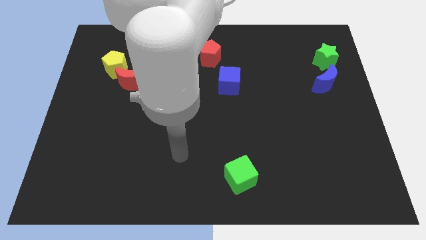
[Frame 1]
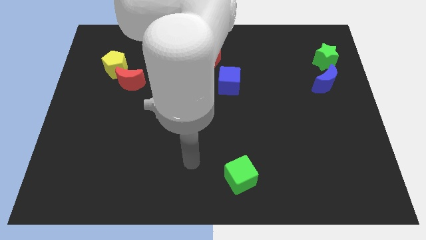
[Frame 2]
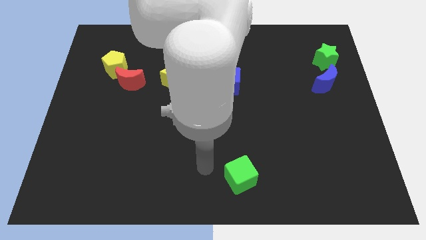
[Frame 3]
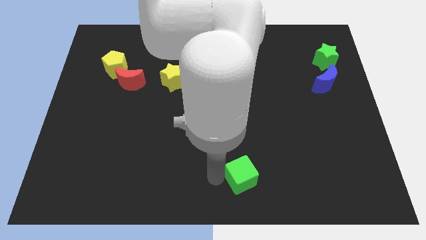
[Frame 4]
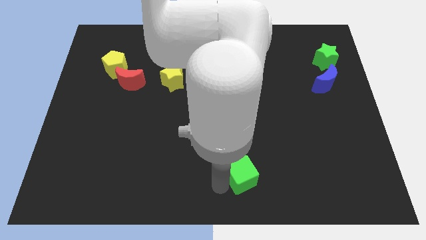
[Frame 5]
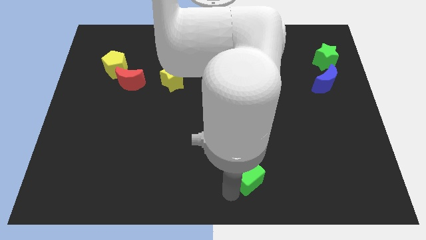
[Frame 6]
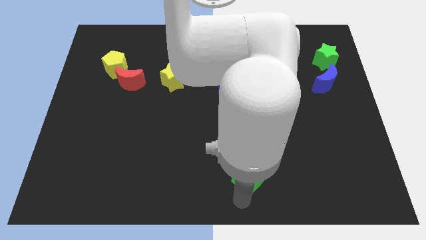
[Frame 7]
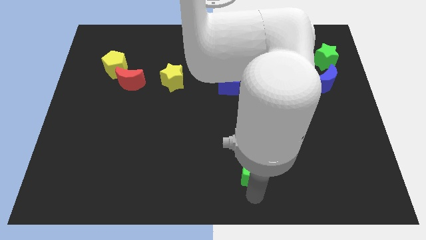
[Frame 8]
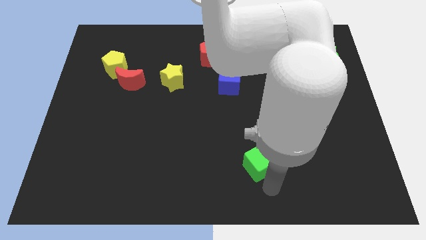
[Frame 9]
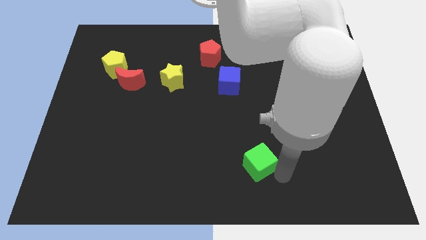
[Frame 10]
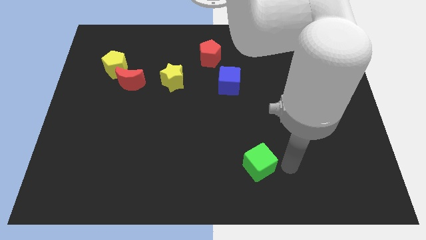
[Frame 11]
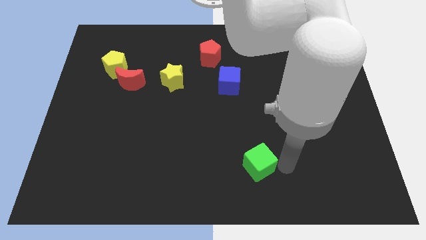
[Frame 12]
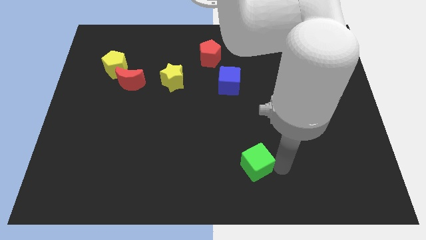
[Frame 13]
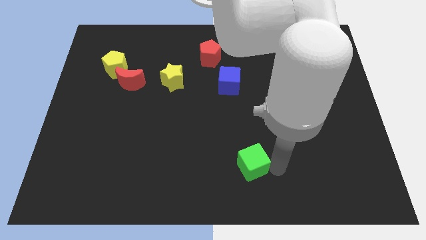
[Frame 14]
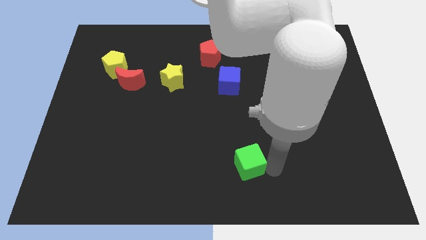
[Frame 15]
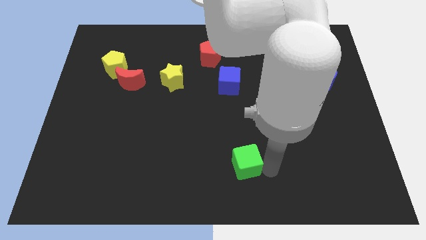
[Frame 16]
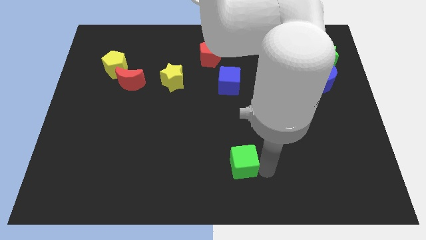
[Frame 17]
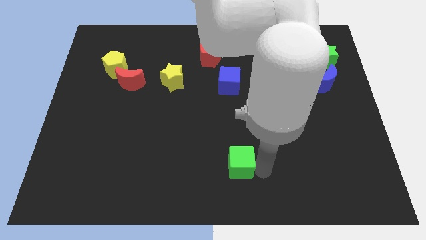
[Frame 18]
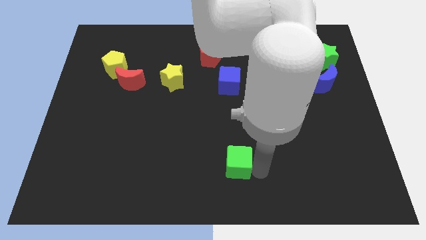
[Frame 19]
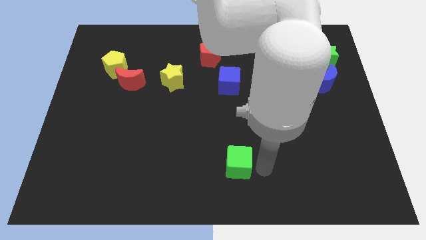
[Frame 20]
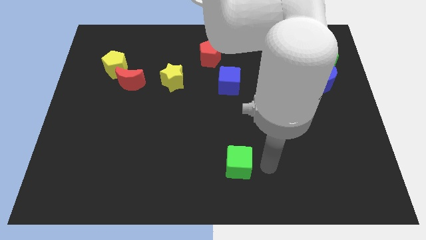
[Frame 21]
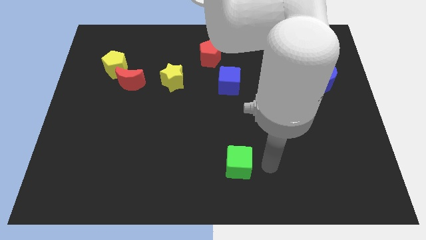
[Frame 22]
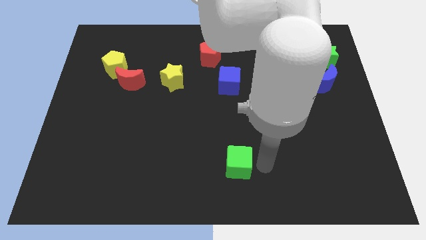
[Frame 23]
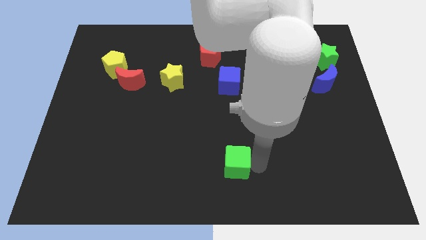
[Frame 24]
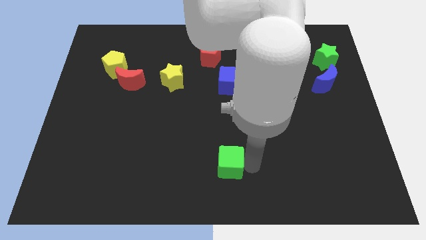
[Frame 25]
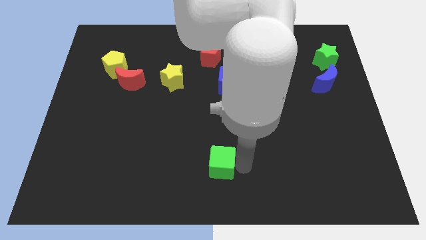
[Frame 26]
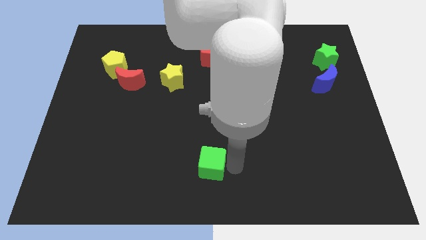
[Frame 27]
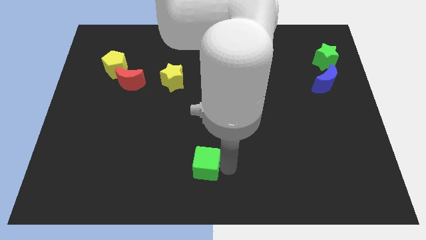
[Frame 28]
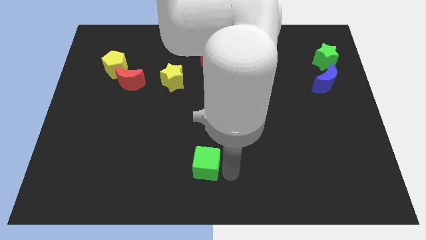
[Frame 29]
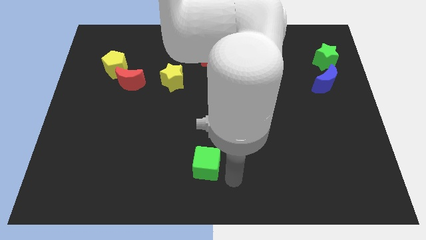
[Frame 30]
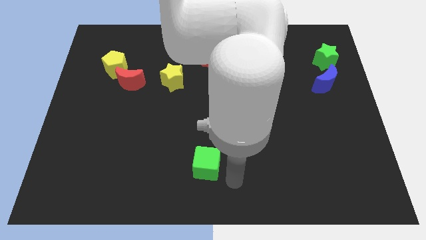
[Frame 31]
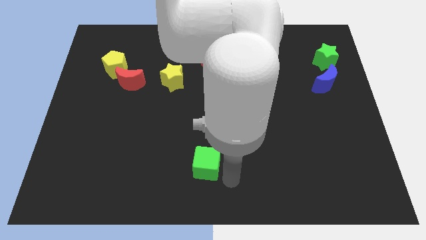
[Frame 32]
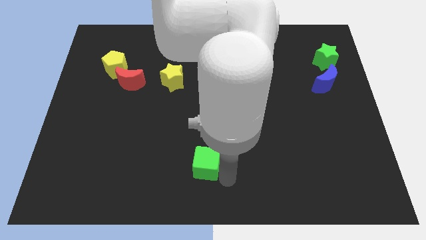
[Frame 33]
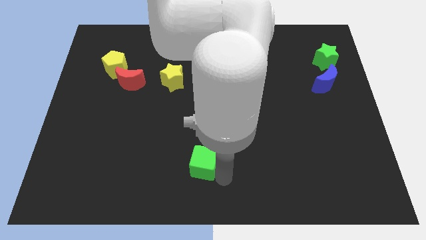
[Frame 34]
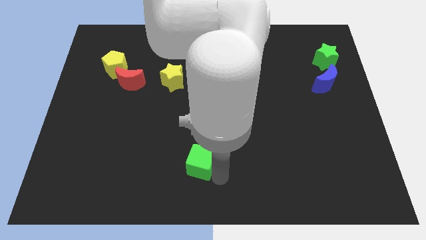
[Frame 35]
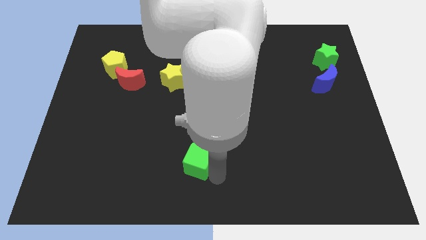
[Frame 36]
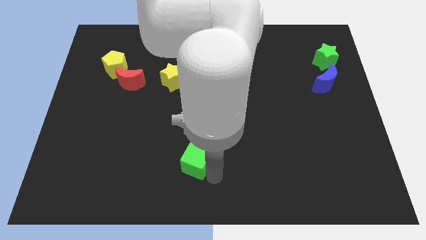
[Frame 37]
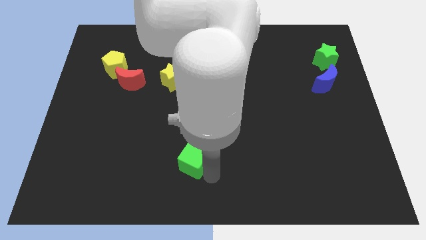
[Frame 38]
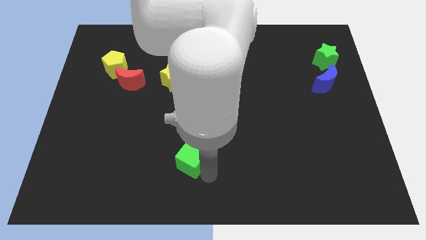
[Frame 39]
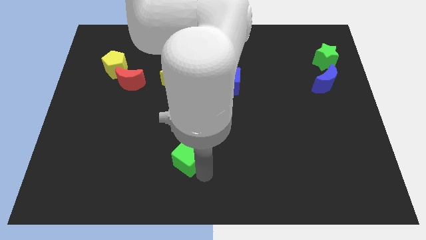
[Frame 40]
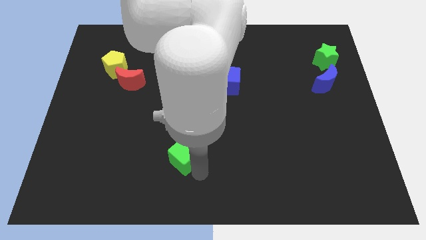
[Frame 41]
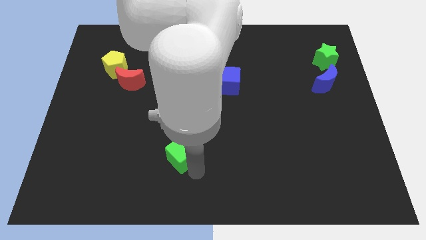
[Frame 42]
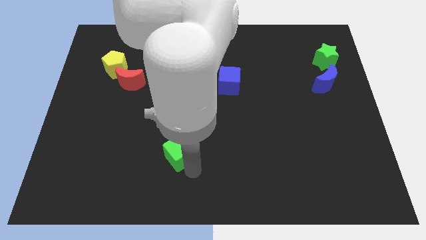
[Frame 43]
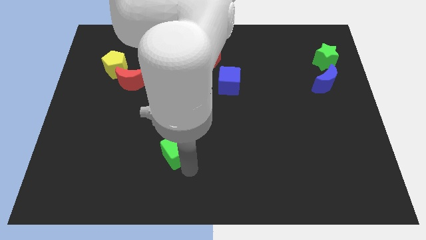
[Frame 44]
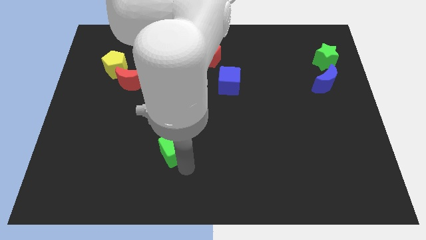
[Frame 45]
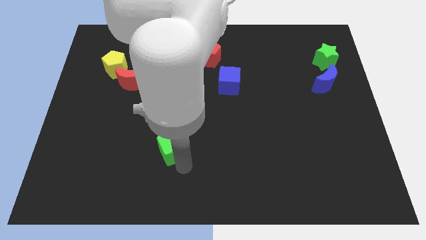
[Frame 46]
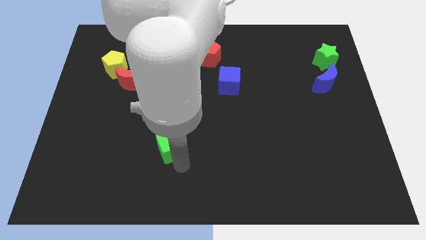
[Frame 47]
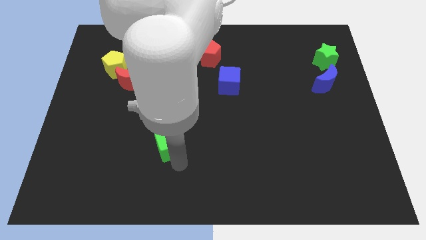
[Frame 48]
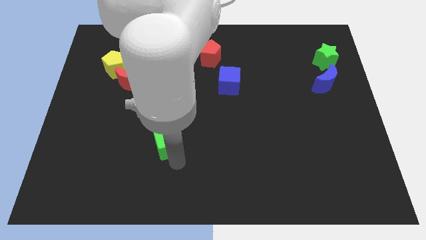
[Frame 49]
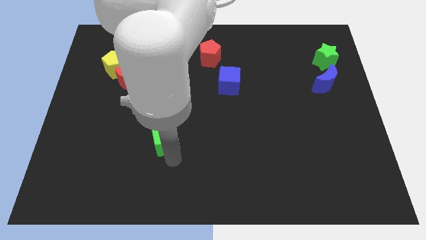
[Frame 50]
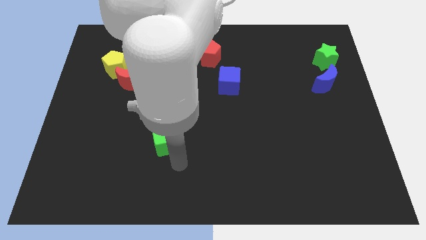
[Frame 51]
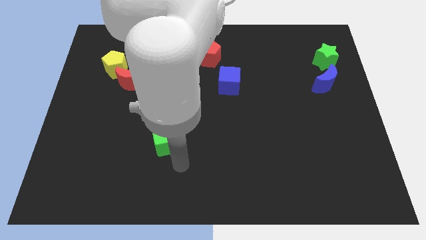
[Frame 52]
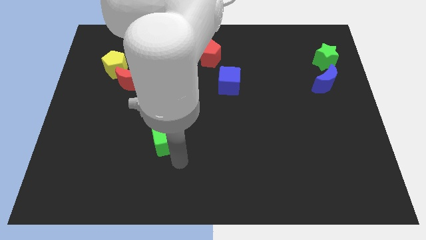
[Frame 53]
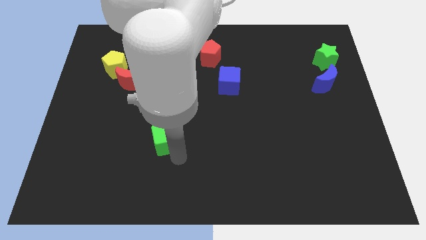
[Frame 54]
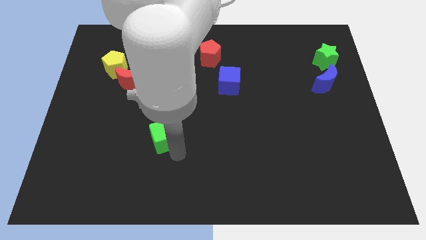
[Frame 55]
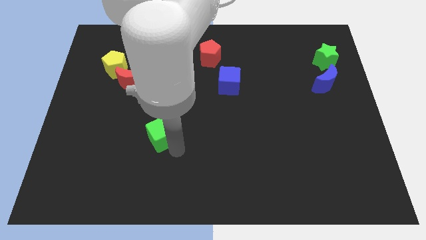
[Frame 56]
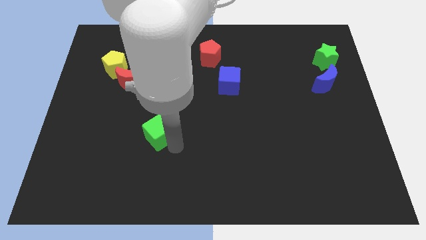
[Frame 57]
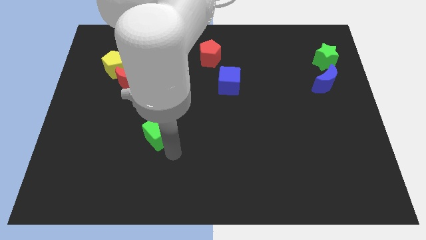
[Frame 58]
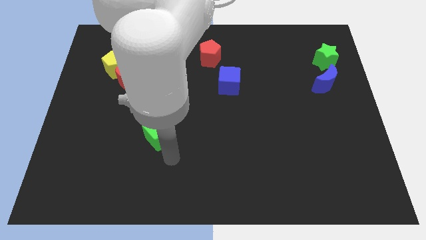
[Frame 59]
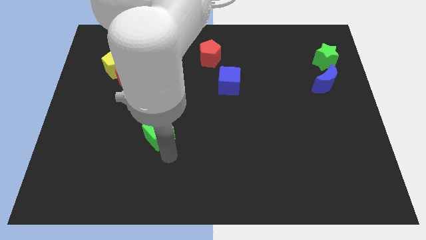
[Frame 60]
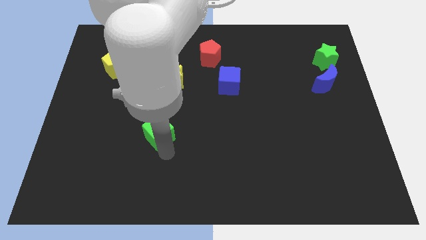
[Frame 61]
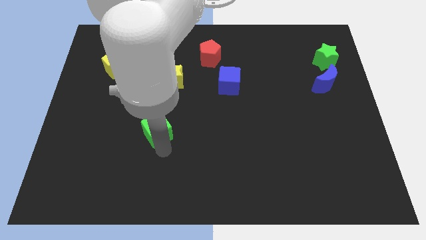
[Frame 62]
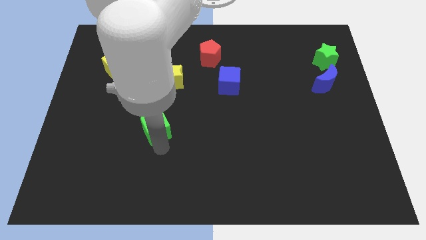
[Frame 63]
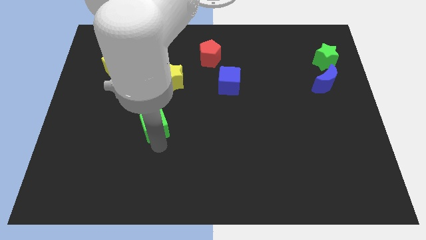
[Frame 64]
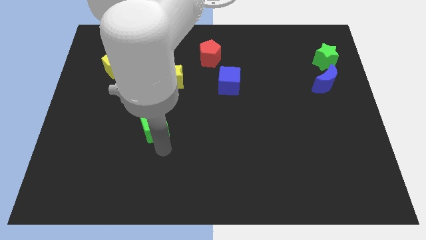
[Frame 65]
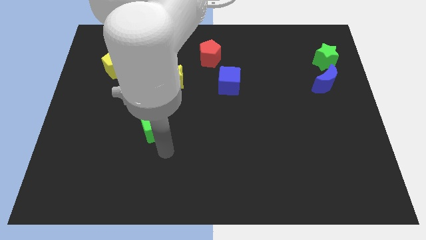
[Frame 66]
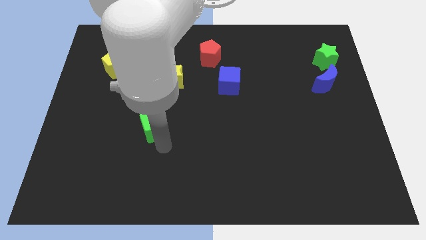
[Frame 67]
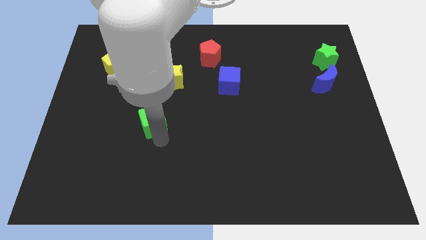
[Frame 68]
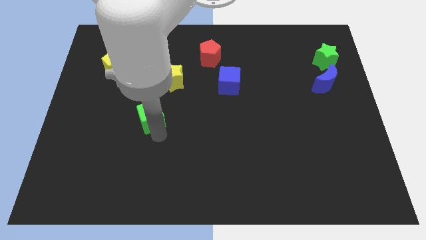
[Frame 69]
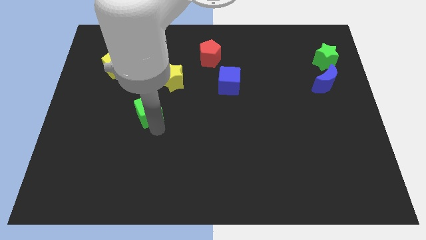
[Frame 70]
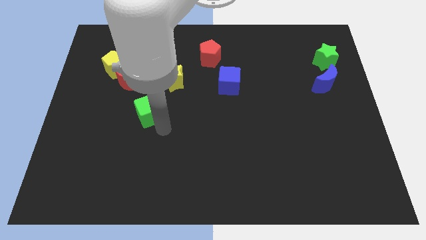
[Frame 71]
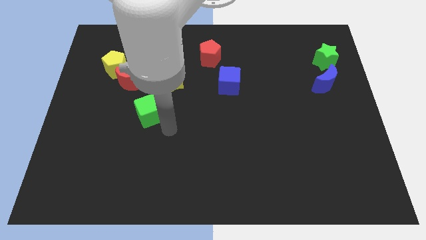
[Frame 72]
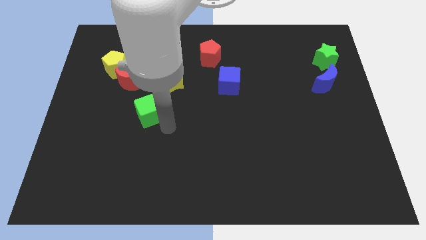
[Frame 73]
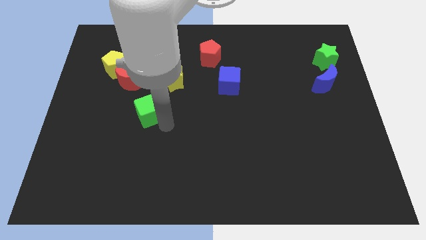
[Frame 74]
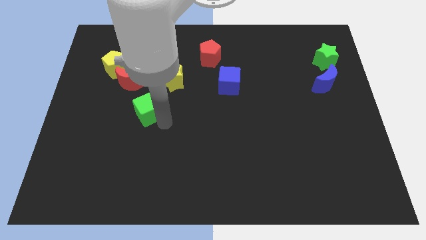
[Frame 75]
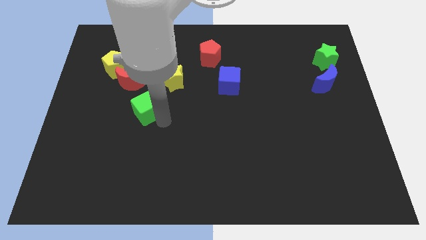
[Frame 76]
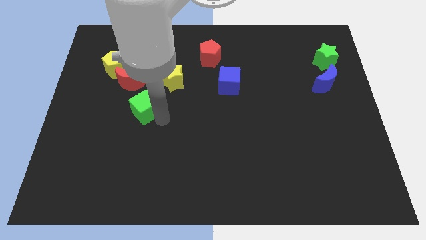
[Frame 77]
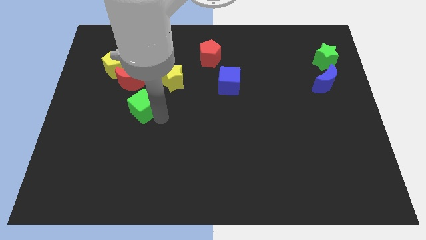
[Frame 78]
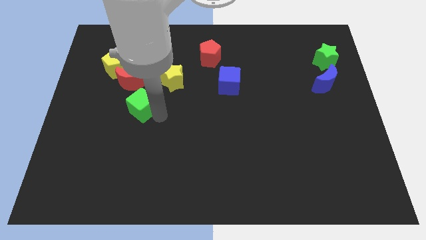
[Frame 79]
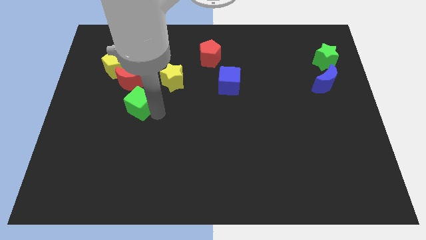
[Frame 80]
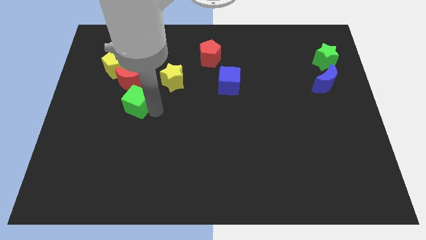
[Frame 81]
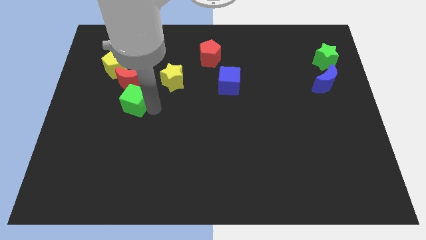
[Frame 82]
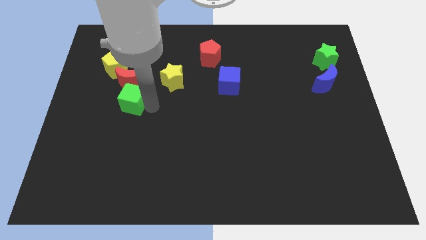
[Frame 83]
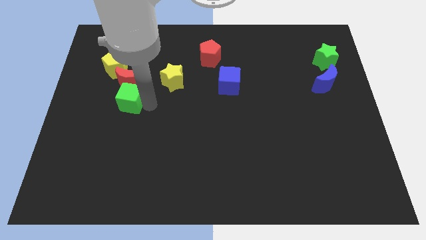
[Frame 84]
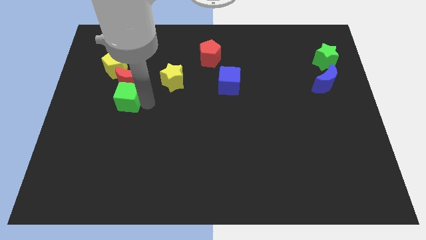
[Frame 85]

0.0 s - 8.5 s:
slide the green cube below the yellow pentagon
